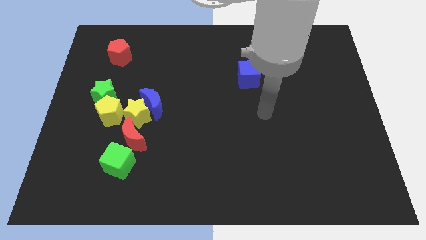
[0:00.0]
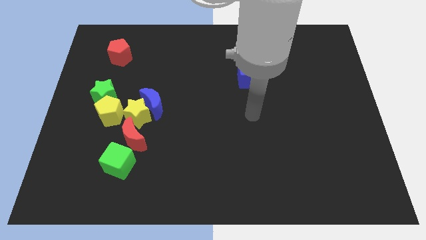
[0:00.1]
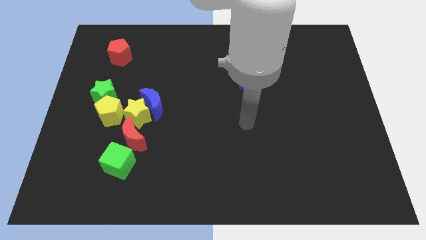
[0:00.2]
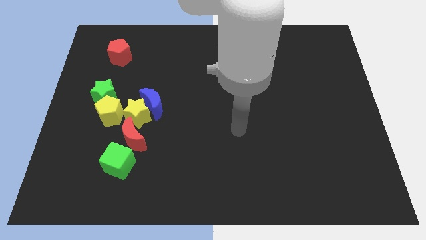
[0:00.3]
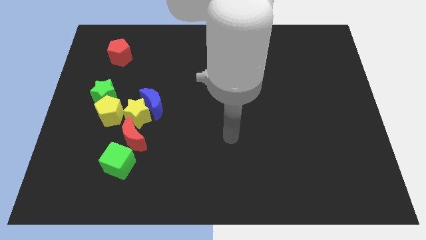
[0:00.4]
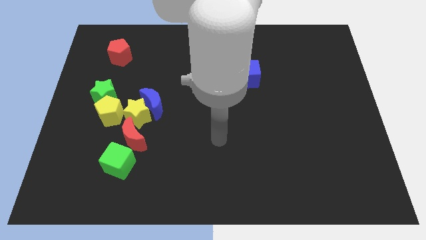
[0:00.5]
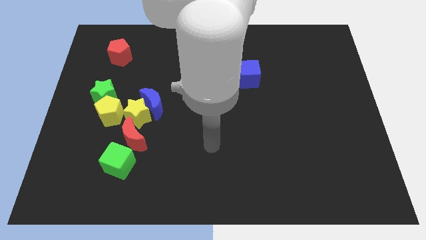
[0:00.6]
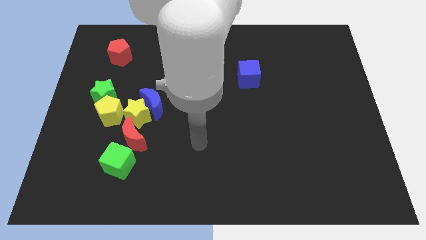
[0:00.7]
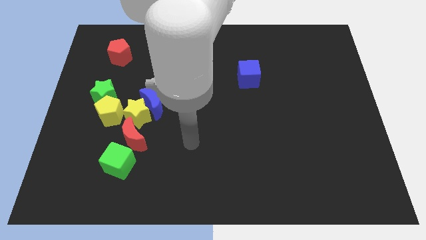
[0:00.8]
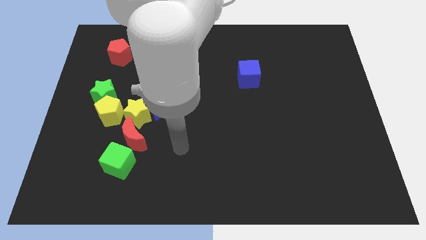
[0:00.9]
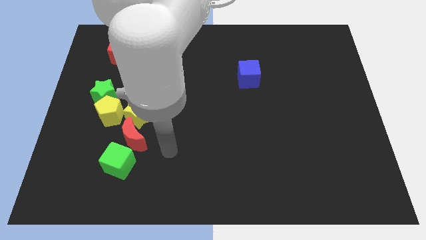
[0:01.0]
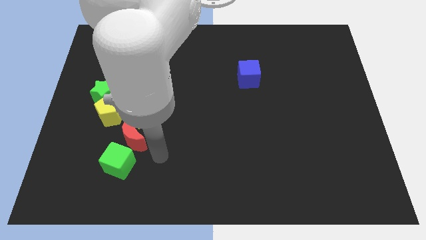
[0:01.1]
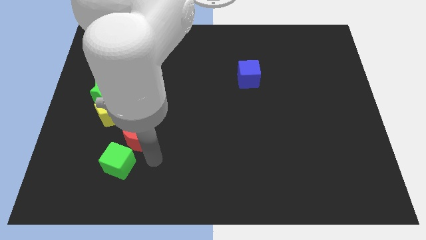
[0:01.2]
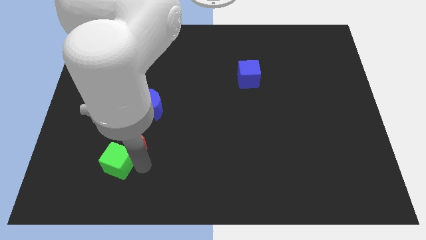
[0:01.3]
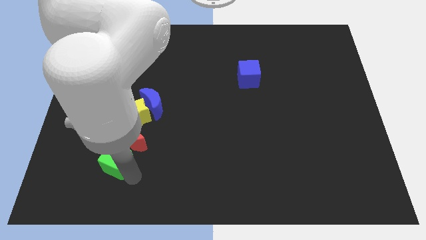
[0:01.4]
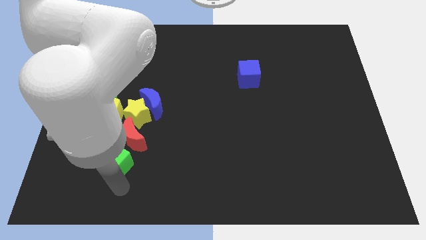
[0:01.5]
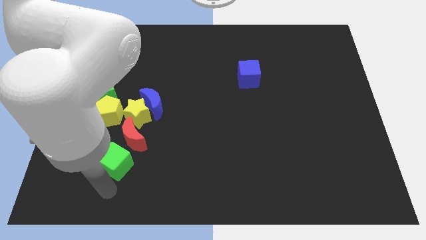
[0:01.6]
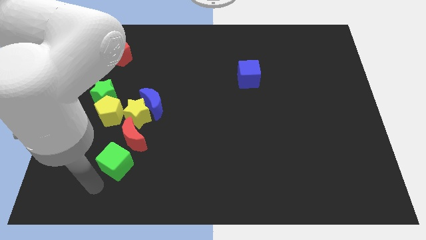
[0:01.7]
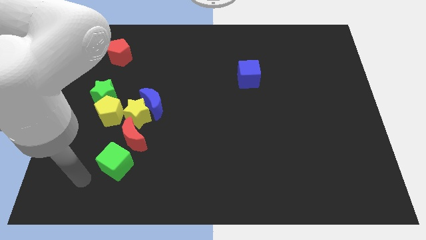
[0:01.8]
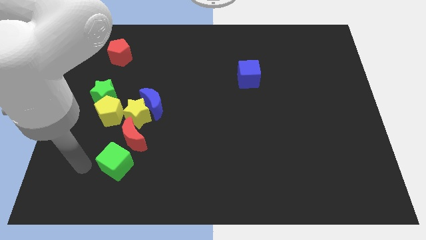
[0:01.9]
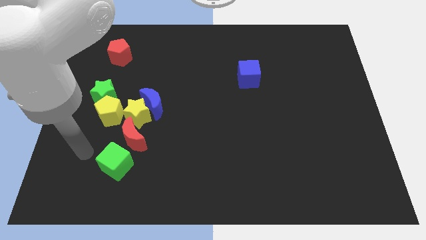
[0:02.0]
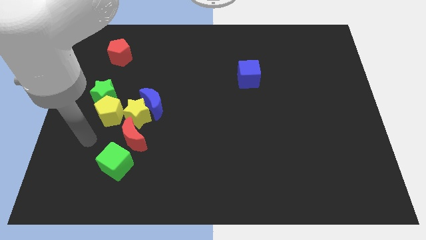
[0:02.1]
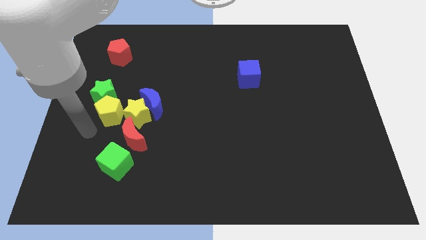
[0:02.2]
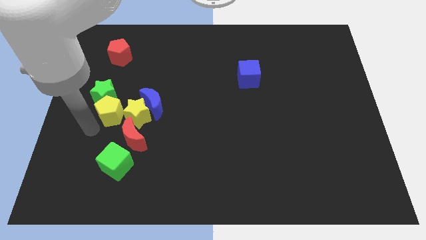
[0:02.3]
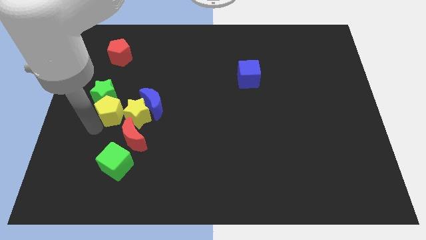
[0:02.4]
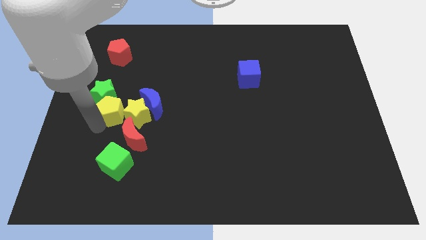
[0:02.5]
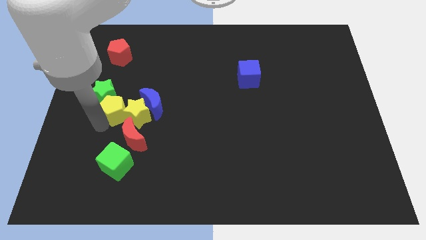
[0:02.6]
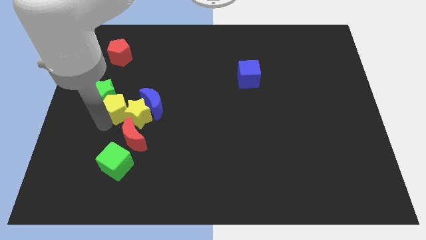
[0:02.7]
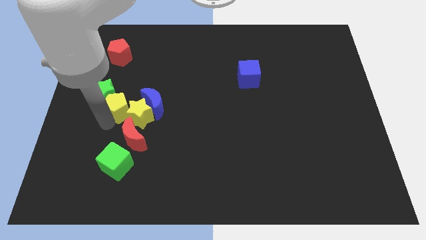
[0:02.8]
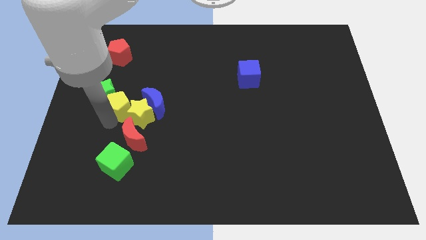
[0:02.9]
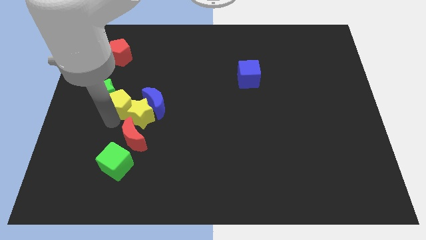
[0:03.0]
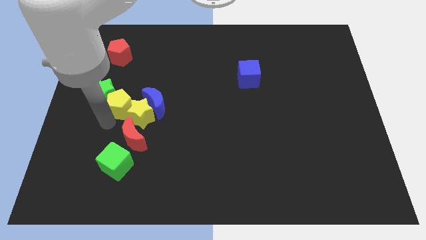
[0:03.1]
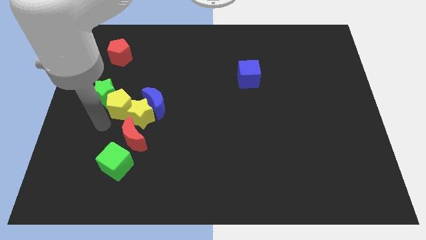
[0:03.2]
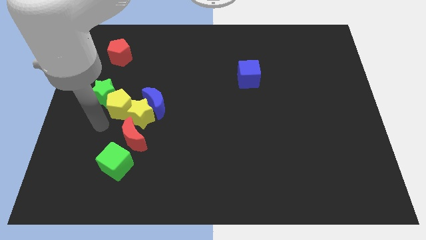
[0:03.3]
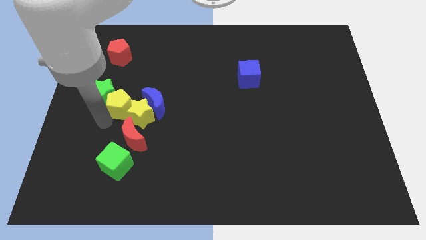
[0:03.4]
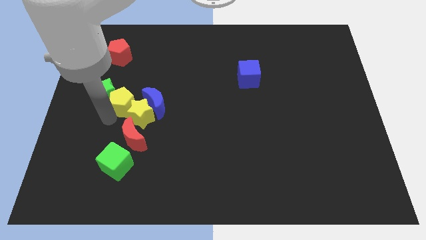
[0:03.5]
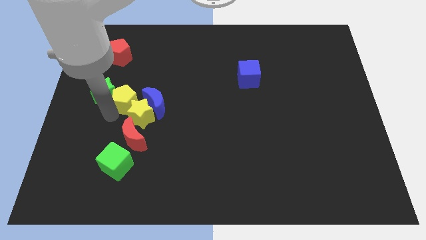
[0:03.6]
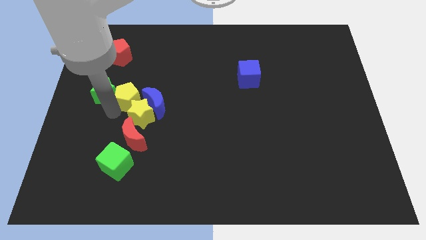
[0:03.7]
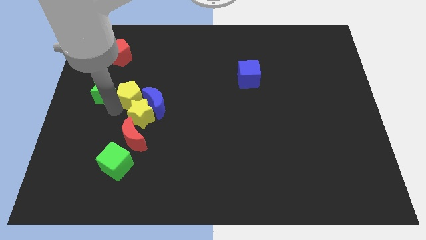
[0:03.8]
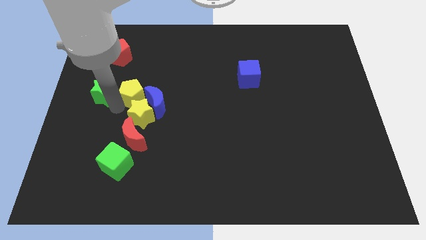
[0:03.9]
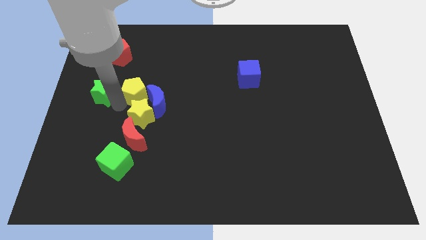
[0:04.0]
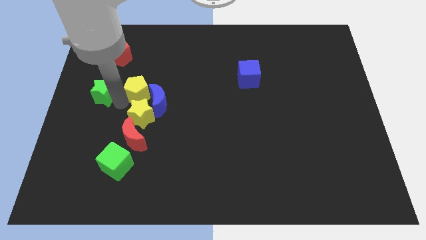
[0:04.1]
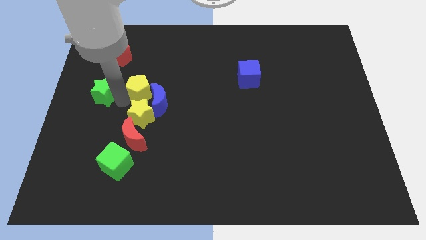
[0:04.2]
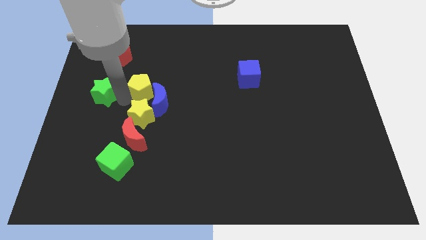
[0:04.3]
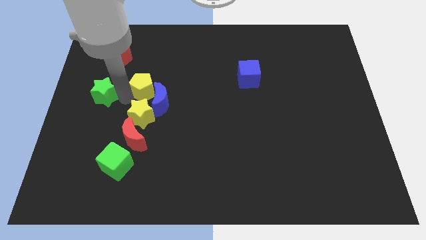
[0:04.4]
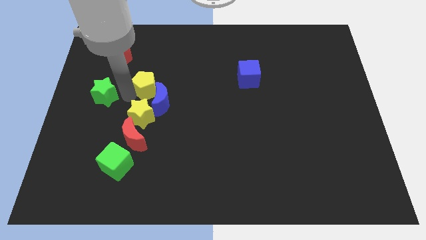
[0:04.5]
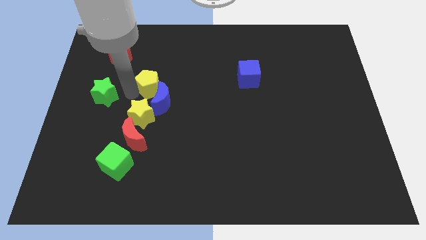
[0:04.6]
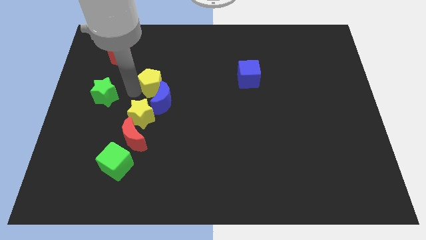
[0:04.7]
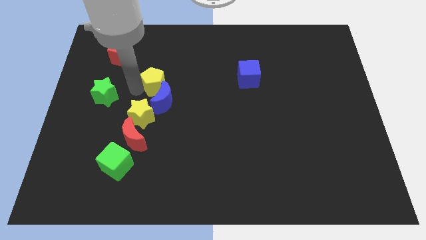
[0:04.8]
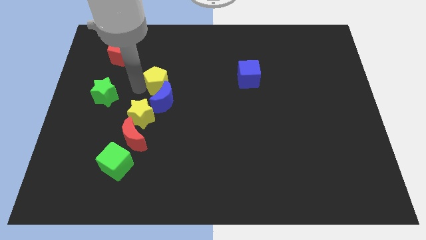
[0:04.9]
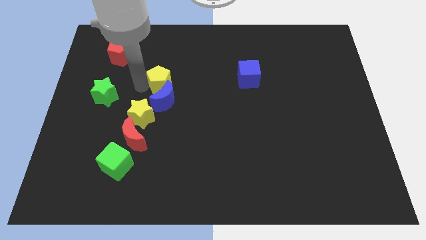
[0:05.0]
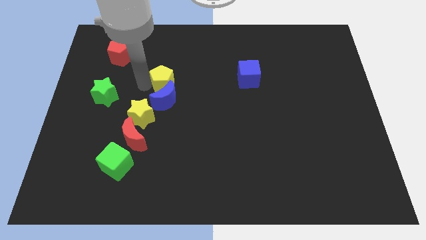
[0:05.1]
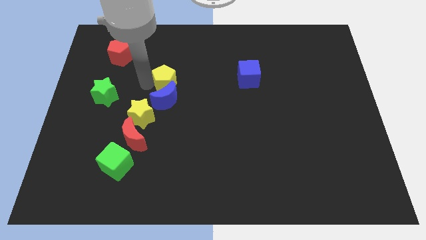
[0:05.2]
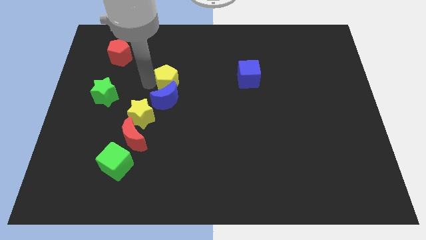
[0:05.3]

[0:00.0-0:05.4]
put the yellow pentagon to the center of the board

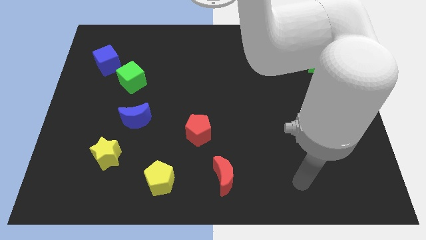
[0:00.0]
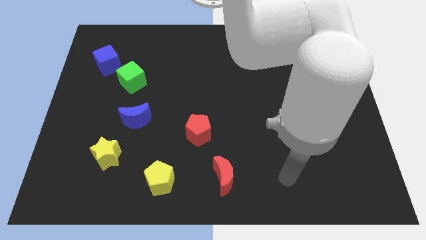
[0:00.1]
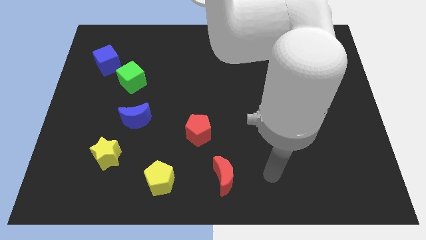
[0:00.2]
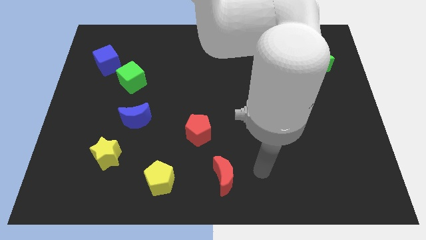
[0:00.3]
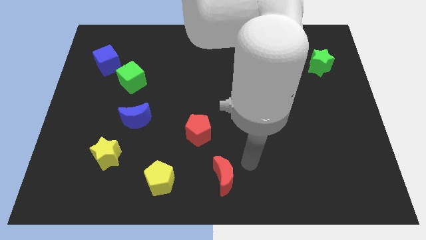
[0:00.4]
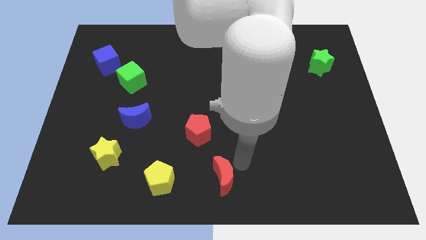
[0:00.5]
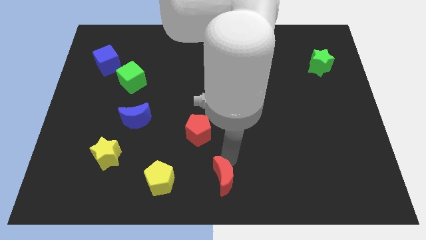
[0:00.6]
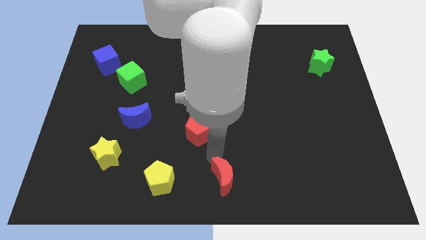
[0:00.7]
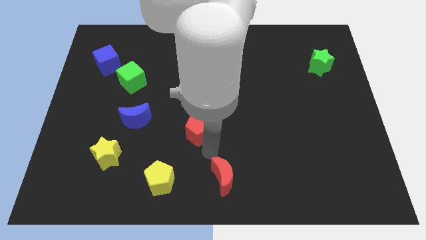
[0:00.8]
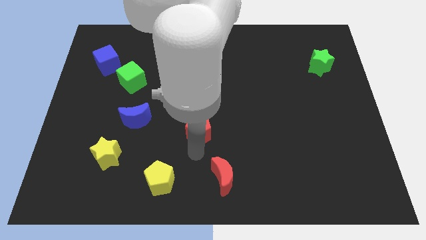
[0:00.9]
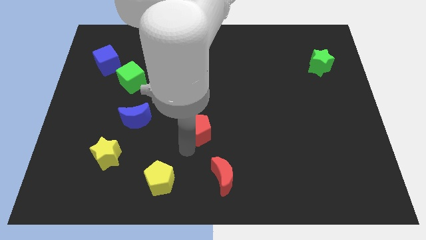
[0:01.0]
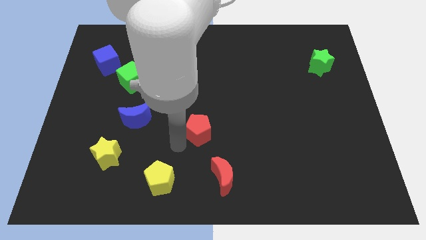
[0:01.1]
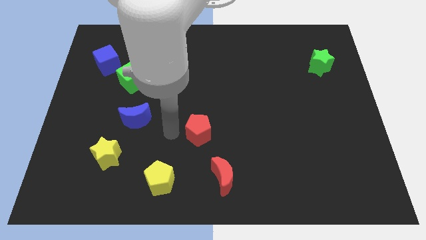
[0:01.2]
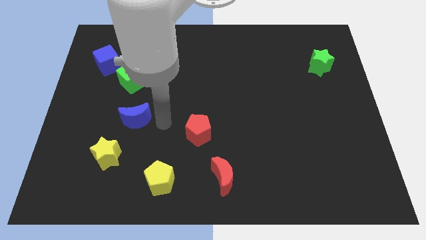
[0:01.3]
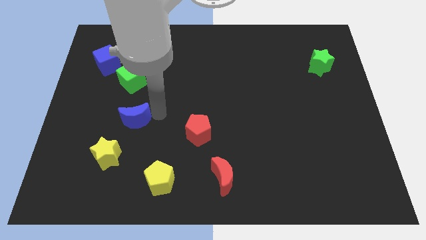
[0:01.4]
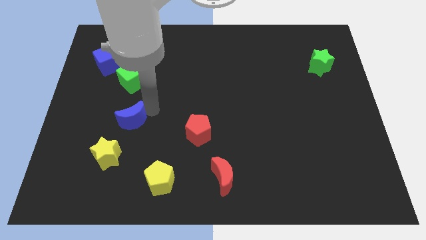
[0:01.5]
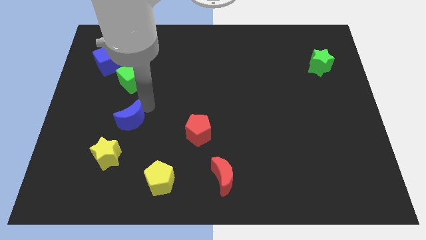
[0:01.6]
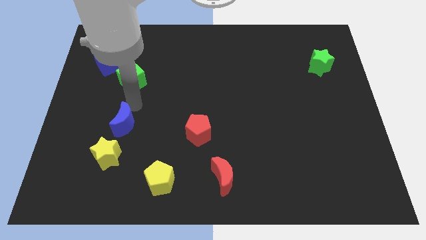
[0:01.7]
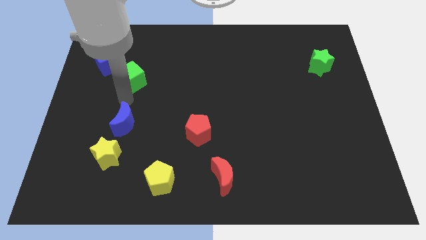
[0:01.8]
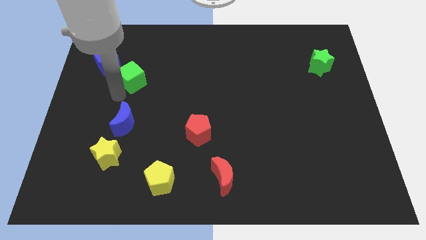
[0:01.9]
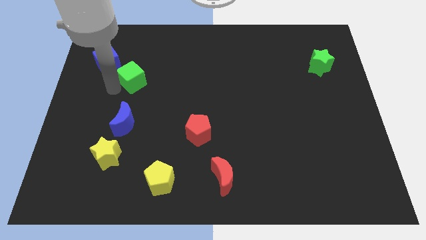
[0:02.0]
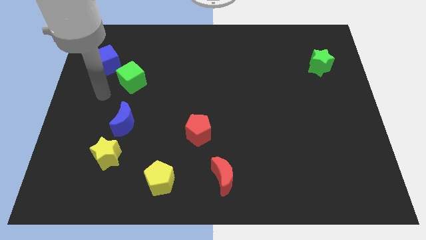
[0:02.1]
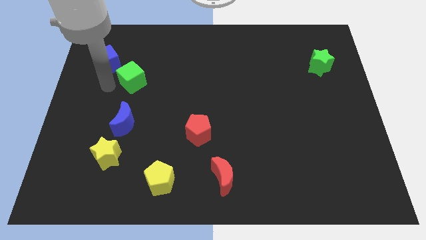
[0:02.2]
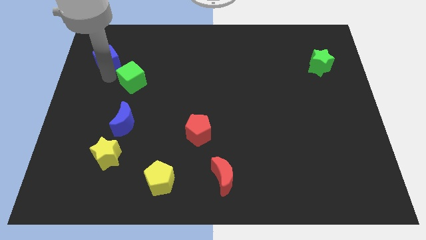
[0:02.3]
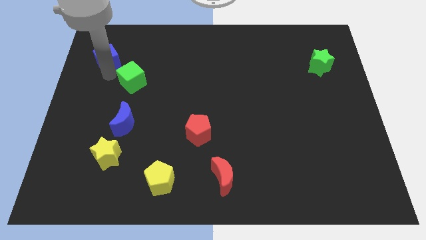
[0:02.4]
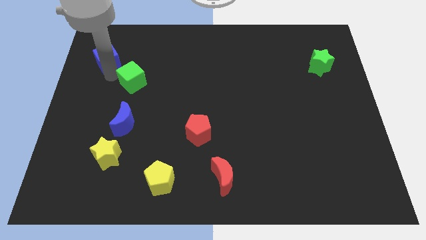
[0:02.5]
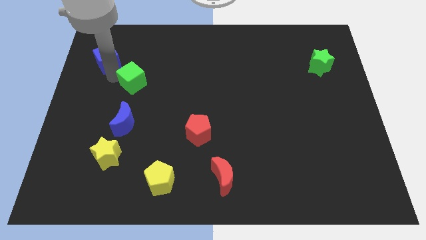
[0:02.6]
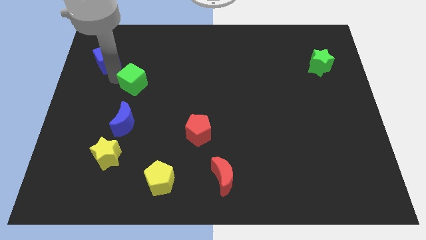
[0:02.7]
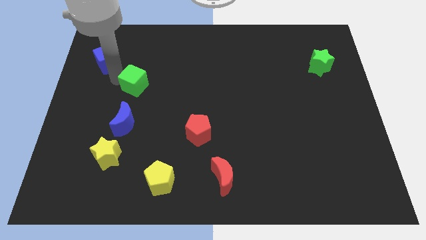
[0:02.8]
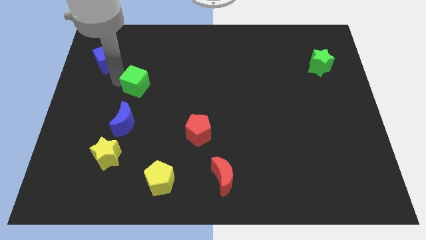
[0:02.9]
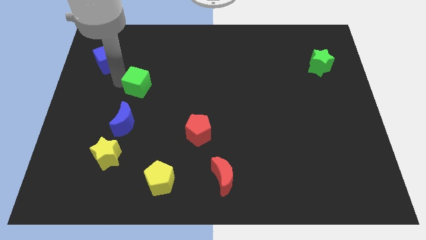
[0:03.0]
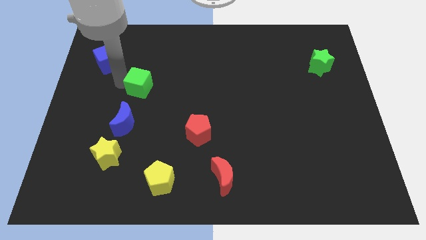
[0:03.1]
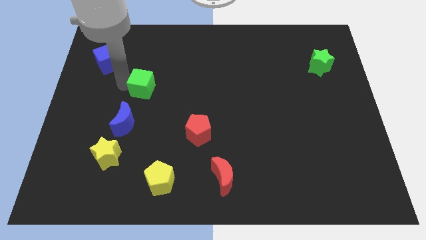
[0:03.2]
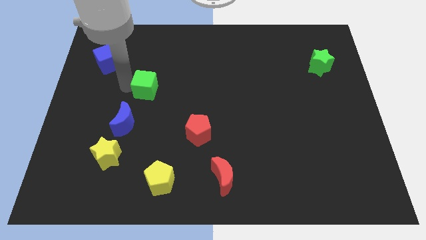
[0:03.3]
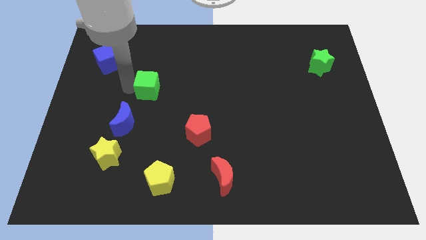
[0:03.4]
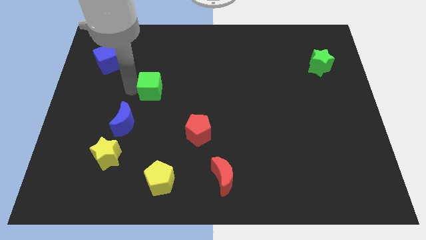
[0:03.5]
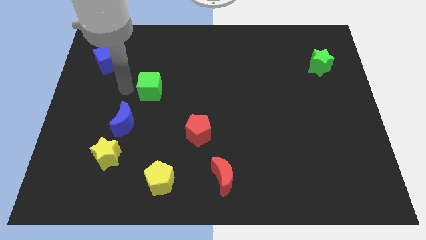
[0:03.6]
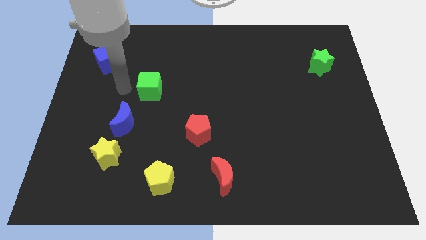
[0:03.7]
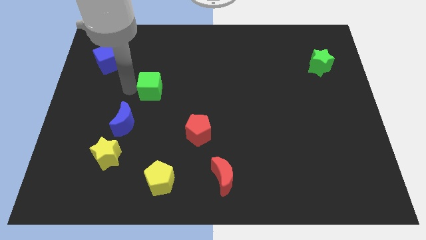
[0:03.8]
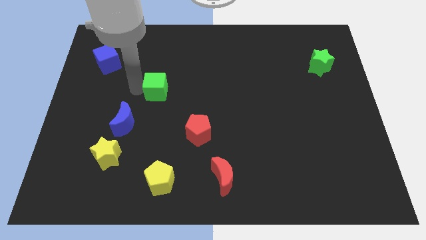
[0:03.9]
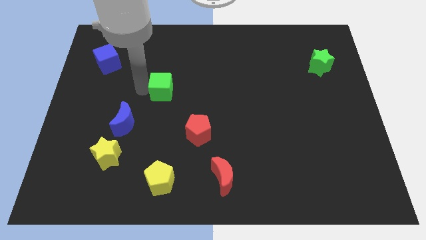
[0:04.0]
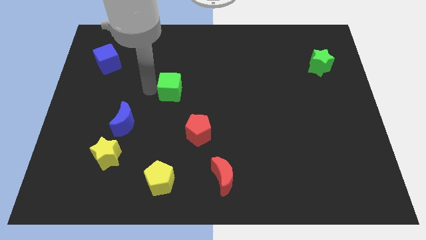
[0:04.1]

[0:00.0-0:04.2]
slide the green cube to the middle of the board
